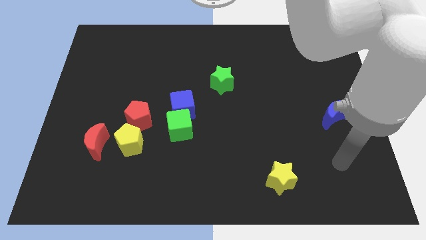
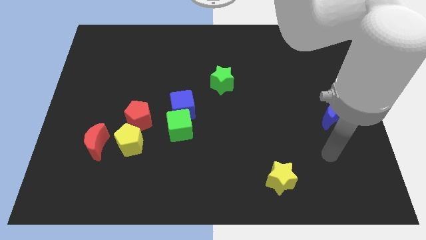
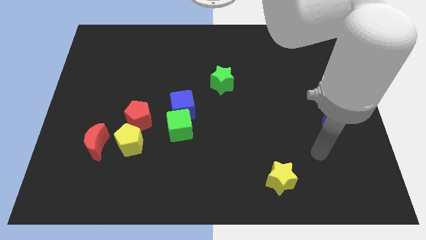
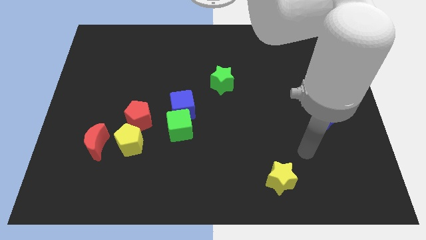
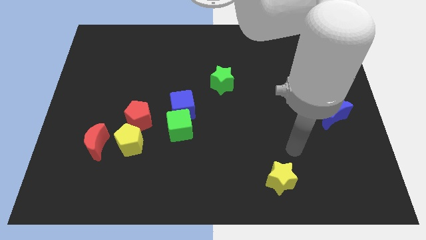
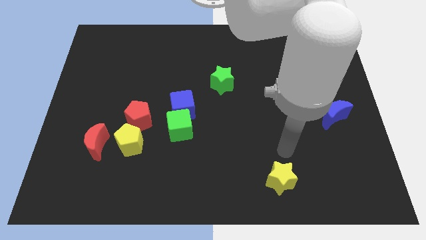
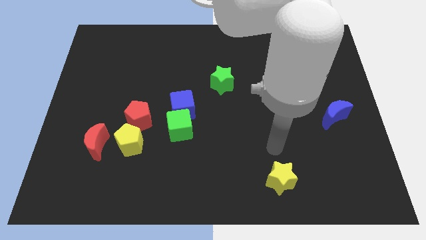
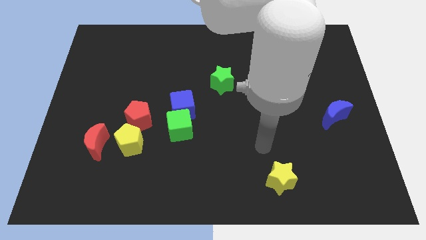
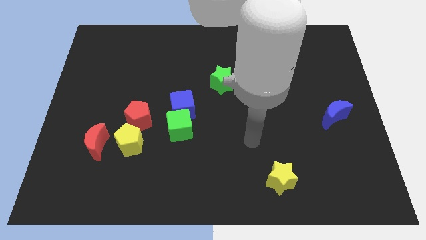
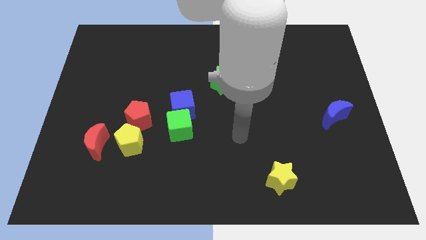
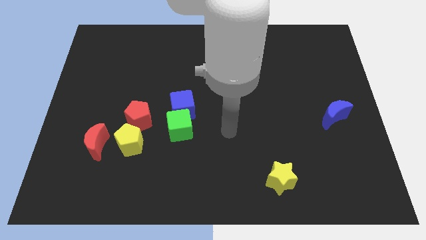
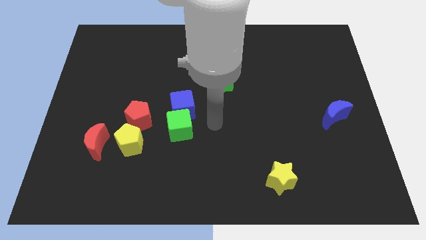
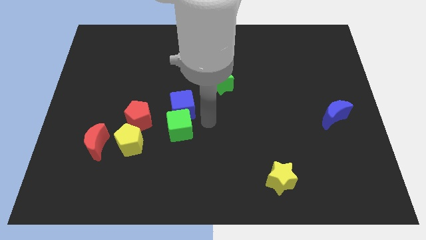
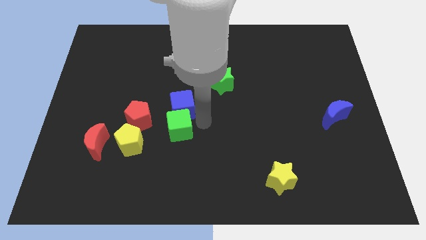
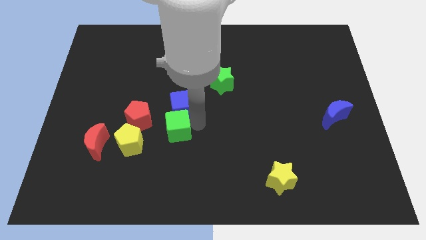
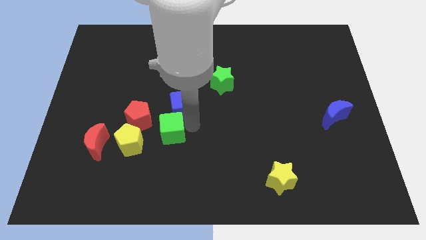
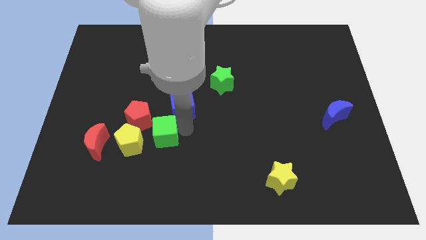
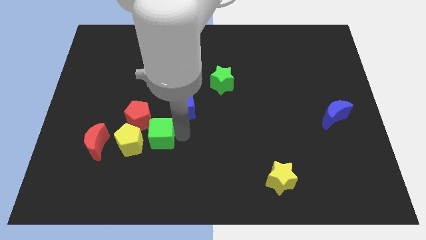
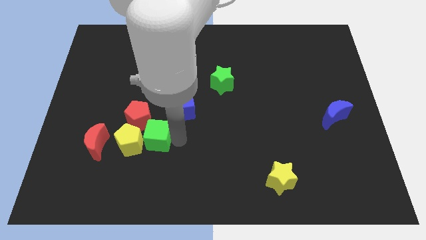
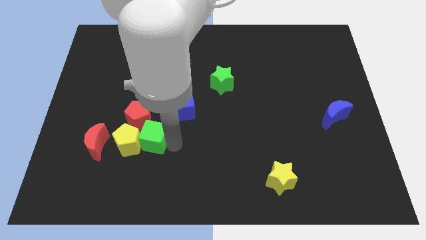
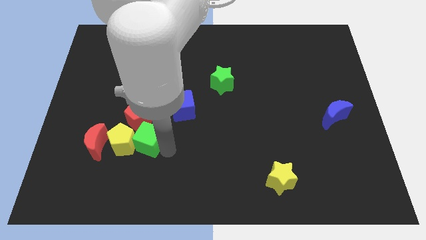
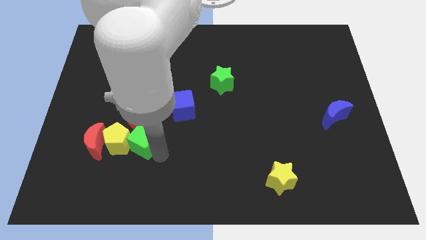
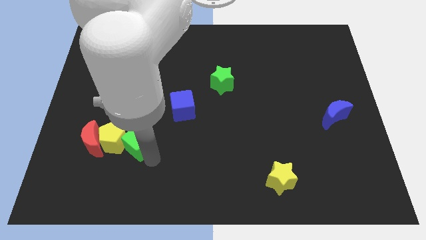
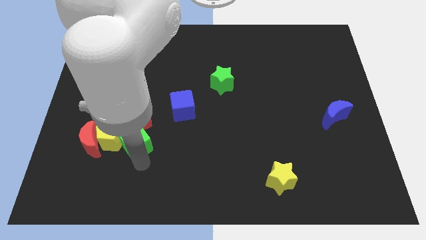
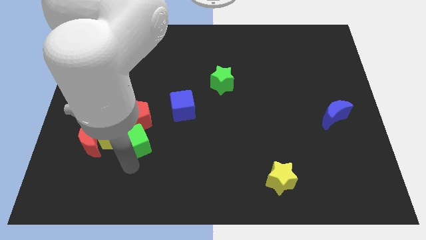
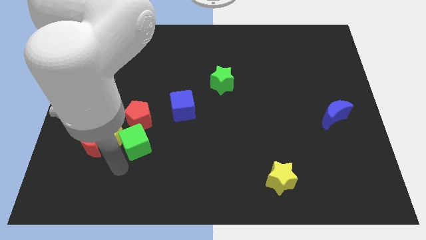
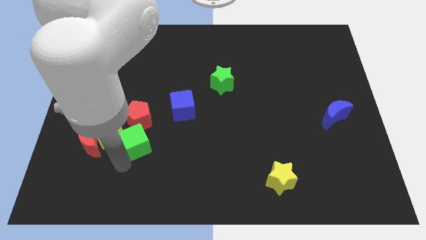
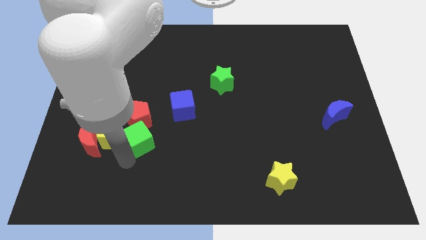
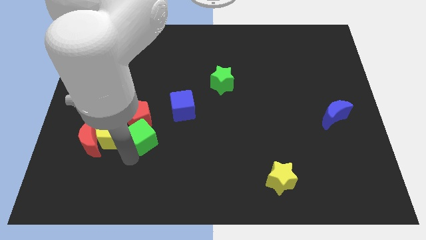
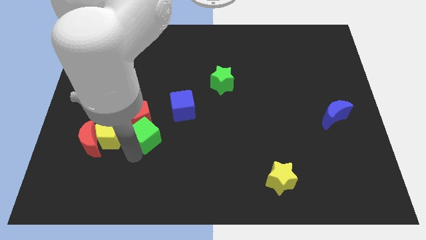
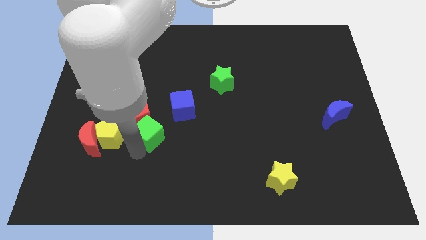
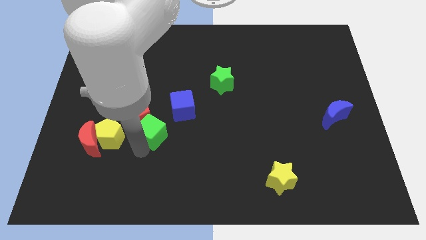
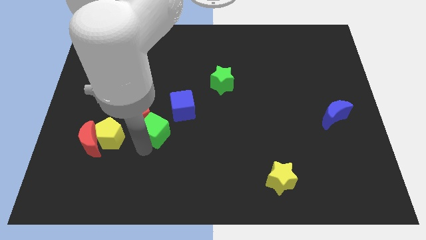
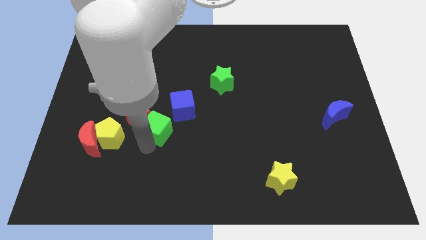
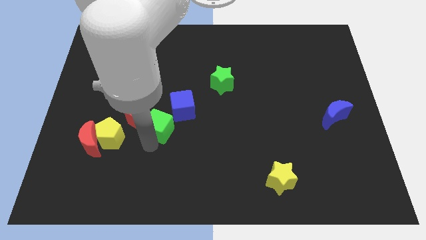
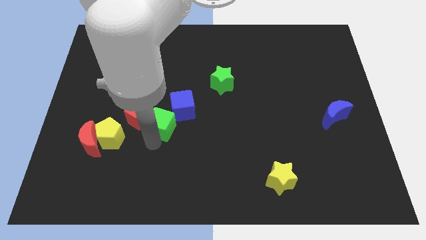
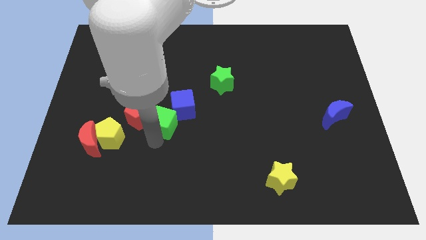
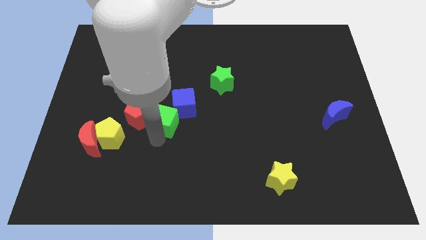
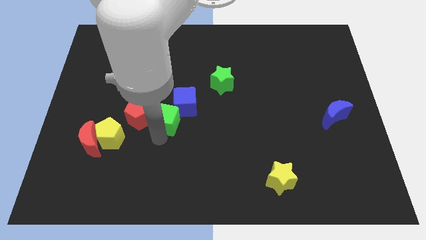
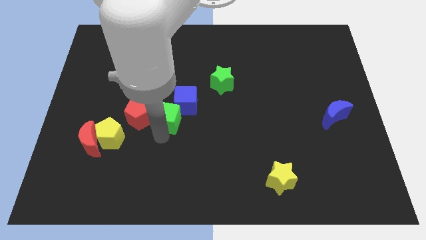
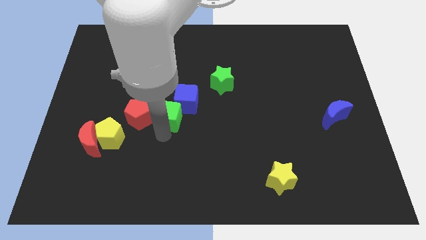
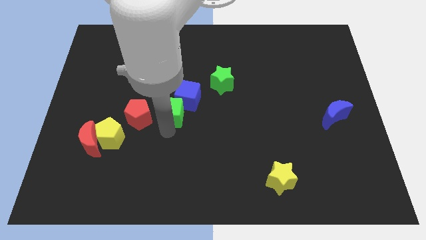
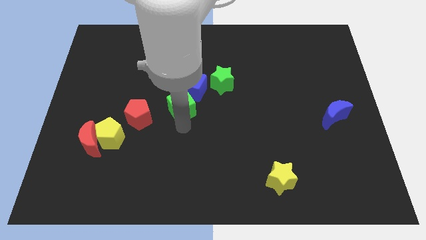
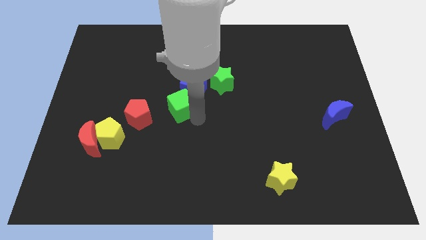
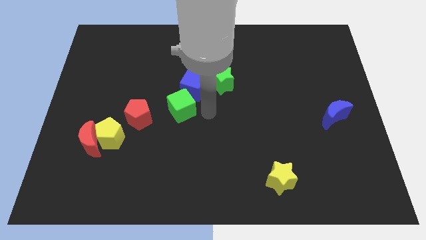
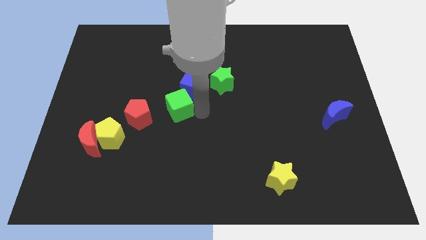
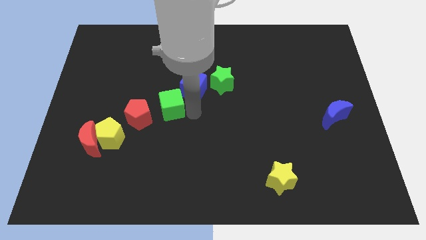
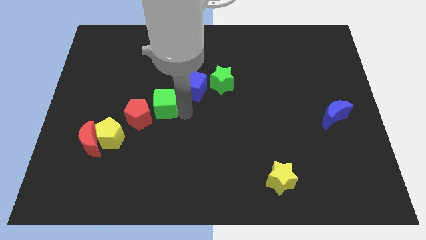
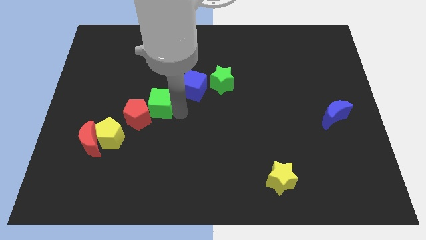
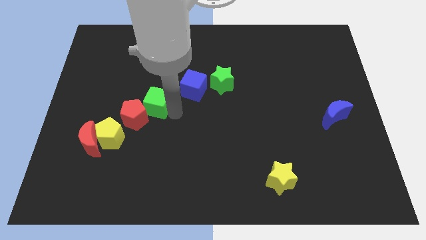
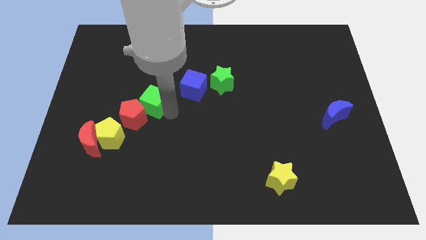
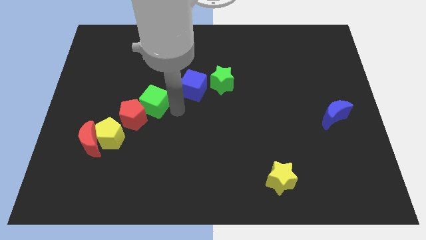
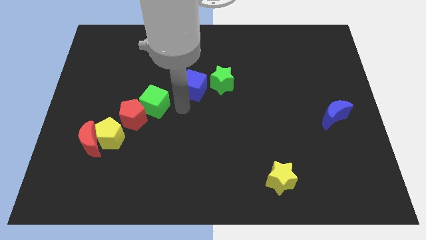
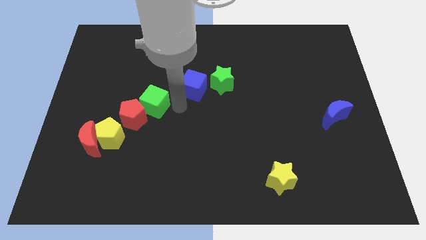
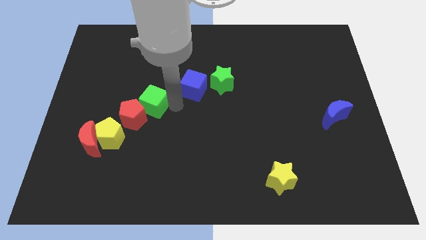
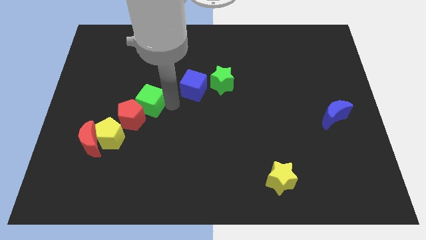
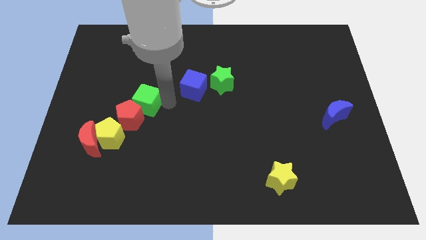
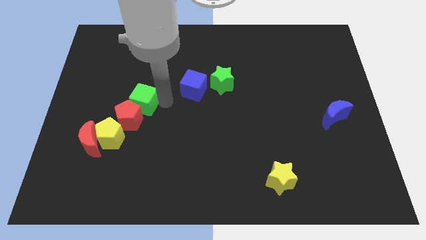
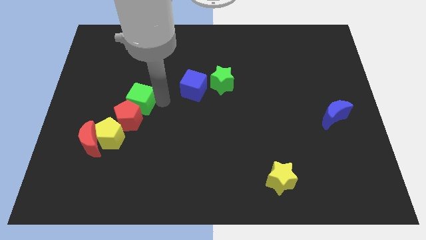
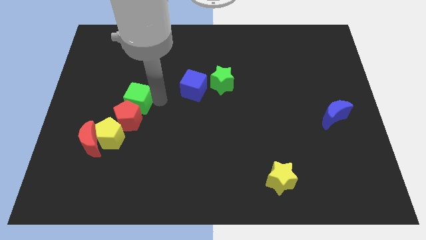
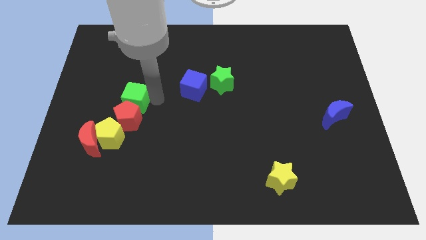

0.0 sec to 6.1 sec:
put the green cube to the top of the yellow pentagon
